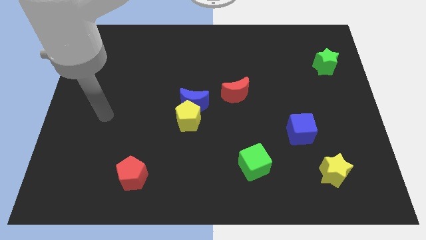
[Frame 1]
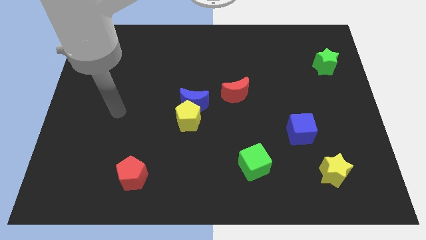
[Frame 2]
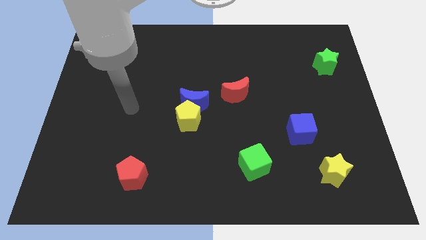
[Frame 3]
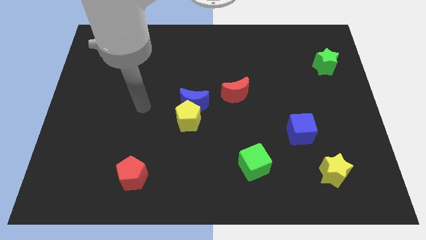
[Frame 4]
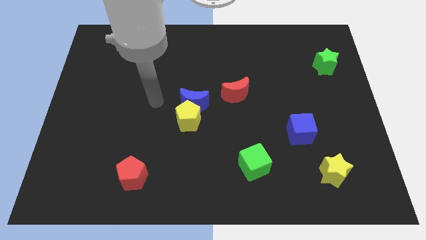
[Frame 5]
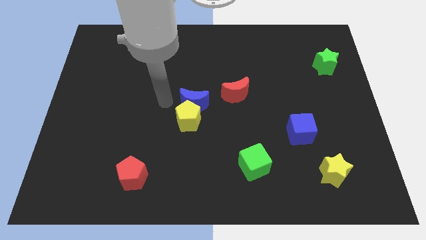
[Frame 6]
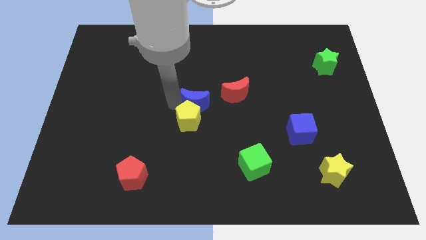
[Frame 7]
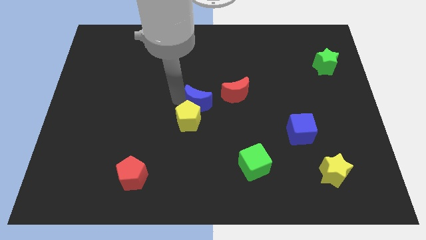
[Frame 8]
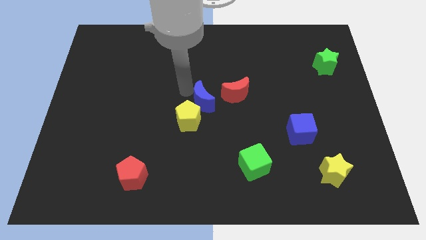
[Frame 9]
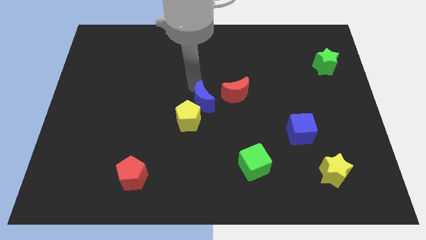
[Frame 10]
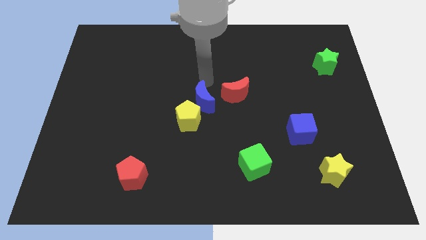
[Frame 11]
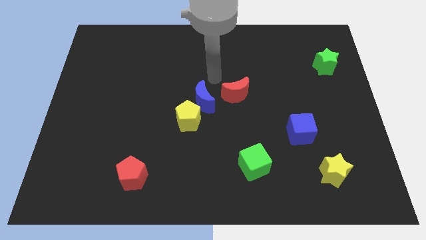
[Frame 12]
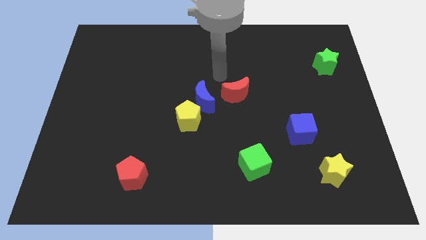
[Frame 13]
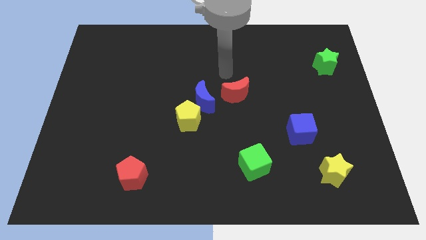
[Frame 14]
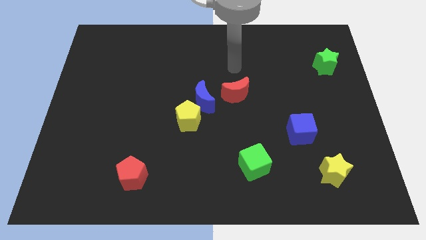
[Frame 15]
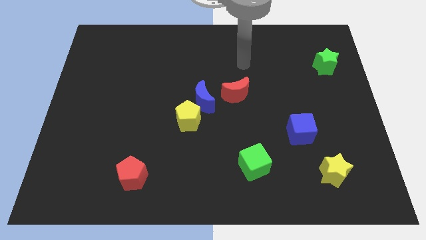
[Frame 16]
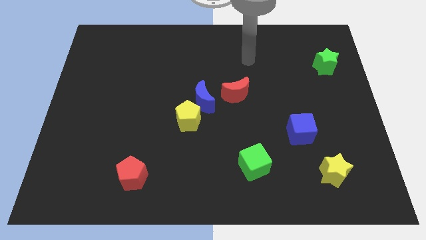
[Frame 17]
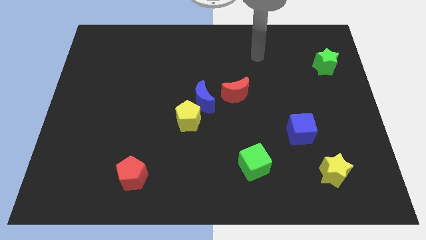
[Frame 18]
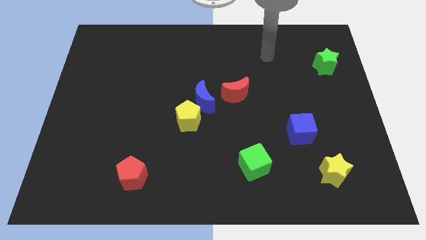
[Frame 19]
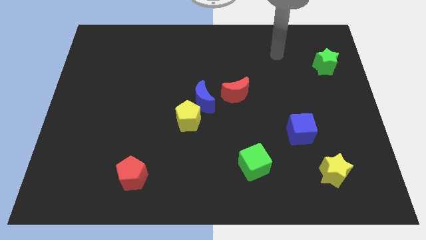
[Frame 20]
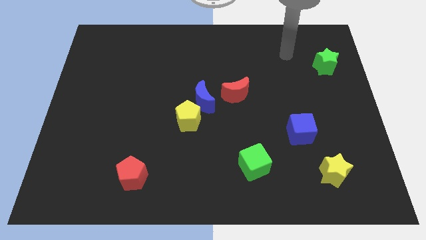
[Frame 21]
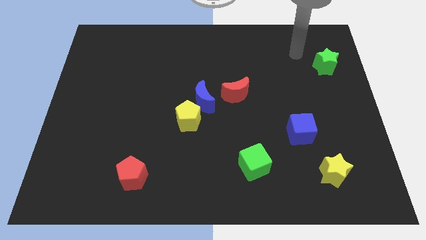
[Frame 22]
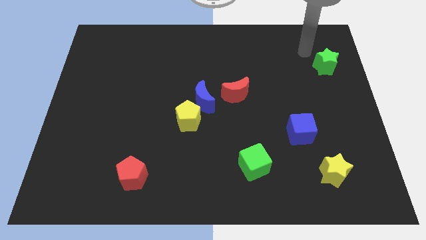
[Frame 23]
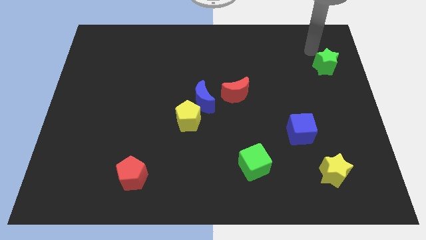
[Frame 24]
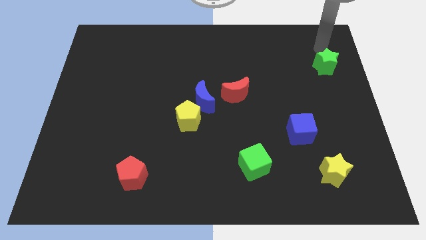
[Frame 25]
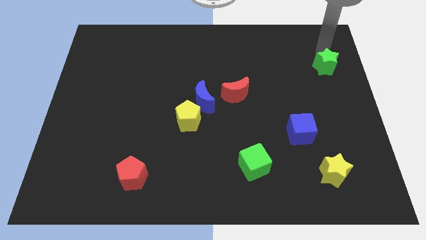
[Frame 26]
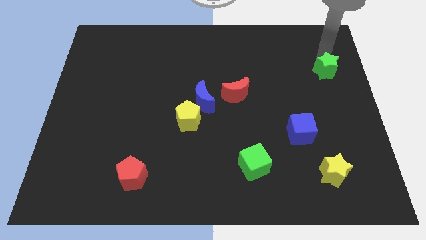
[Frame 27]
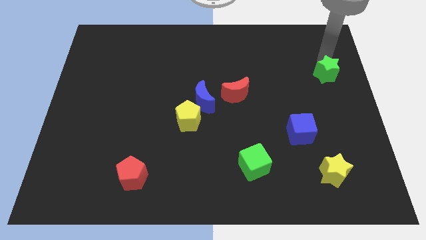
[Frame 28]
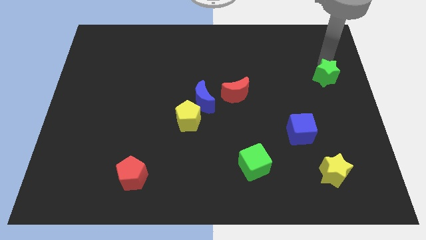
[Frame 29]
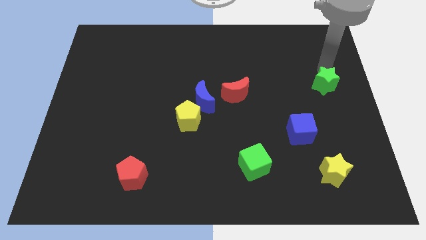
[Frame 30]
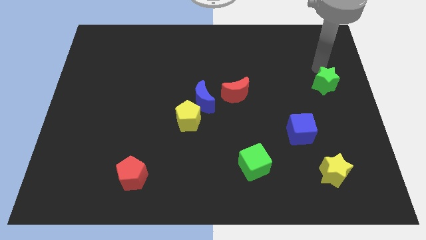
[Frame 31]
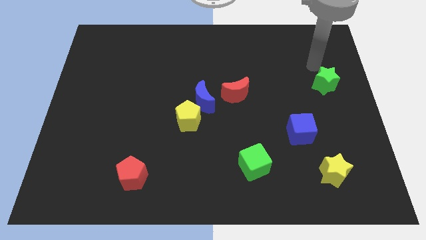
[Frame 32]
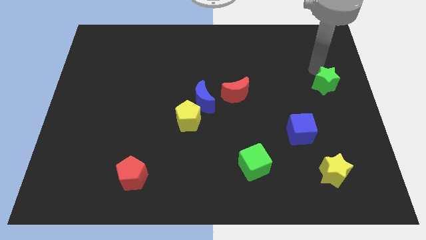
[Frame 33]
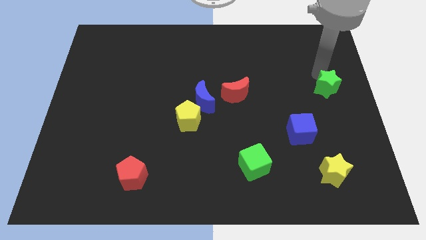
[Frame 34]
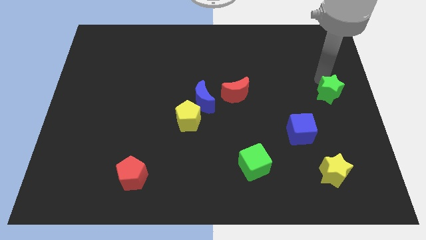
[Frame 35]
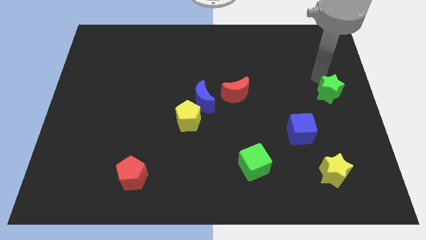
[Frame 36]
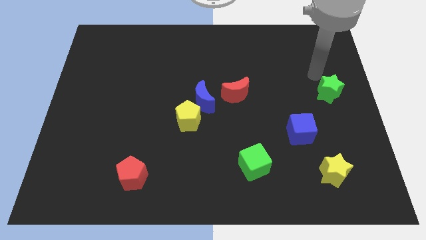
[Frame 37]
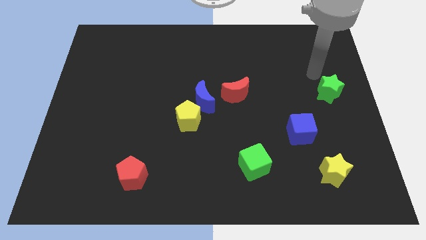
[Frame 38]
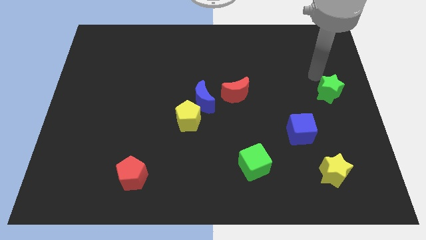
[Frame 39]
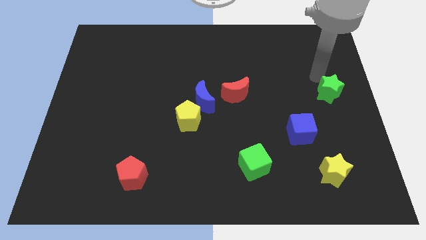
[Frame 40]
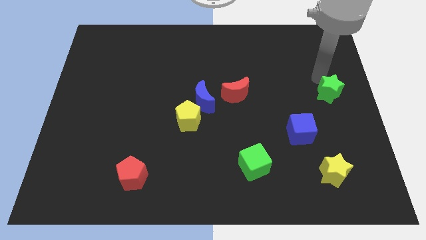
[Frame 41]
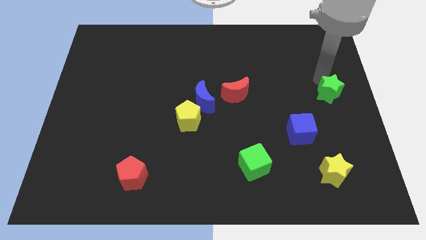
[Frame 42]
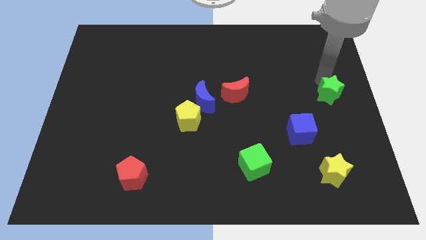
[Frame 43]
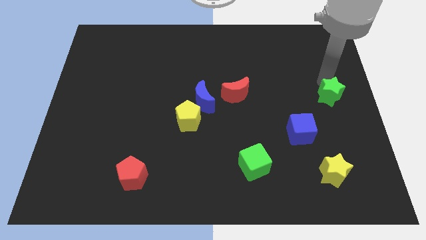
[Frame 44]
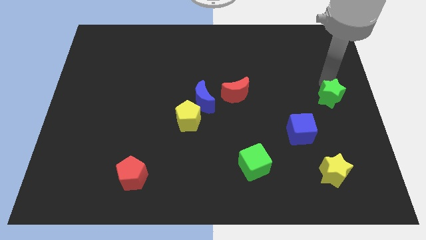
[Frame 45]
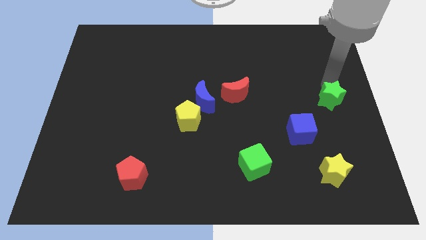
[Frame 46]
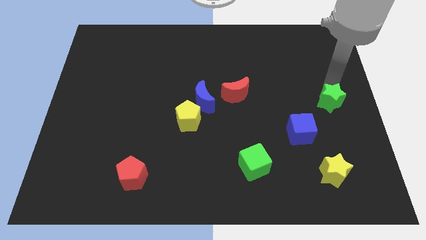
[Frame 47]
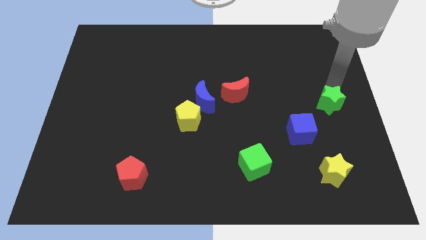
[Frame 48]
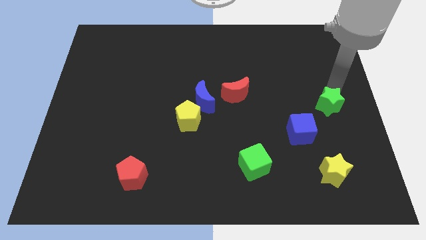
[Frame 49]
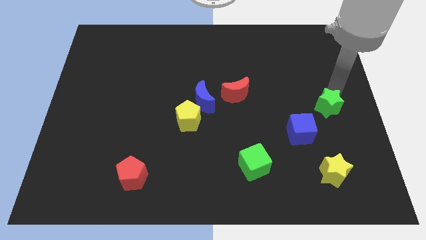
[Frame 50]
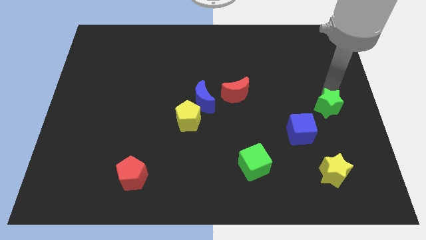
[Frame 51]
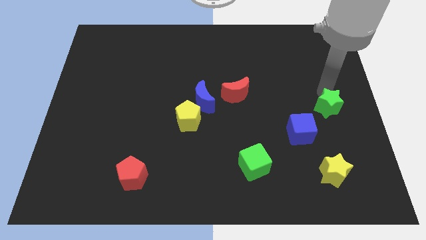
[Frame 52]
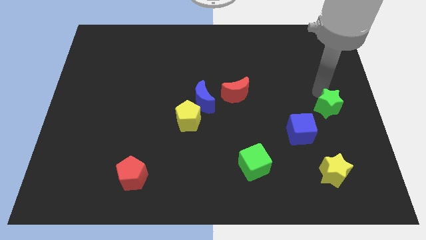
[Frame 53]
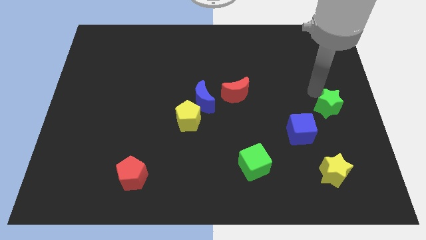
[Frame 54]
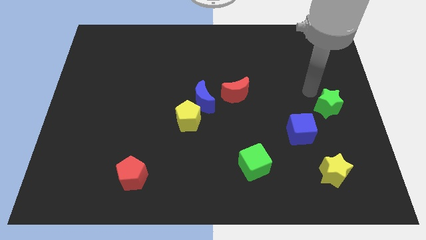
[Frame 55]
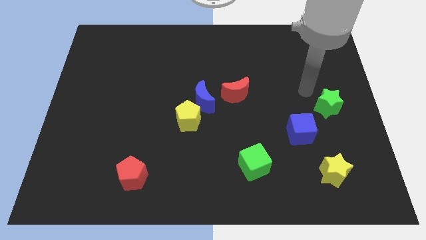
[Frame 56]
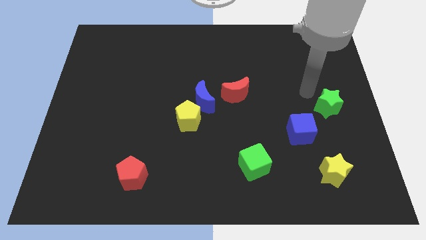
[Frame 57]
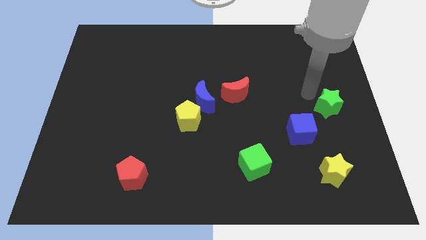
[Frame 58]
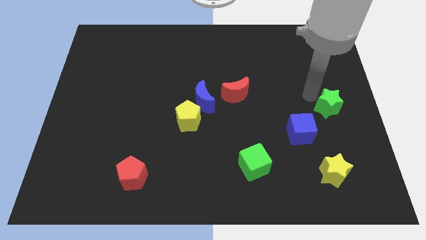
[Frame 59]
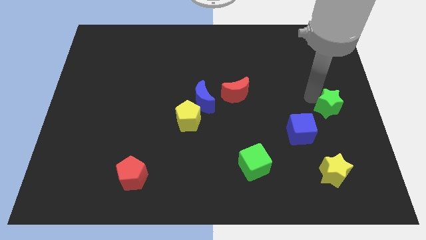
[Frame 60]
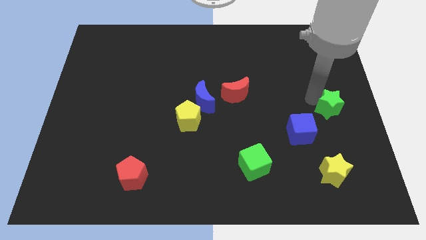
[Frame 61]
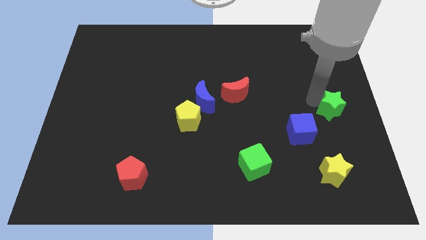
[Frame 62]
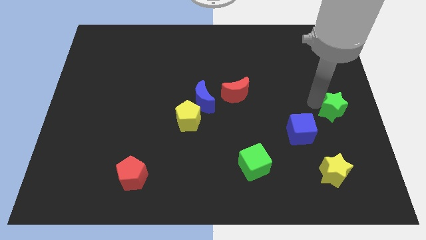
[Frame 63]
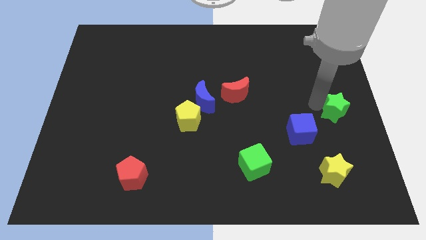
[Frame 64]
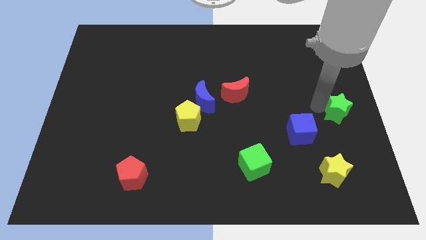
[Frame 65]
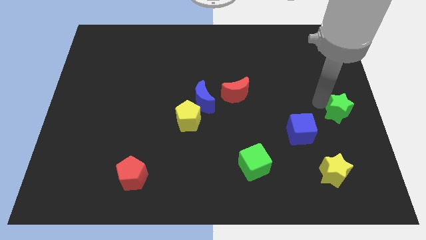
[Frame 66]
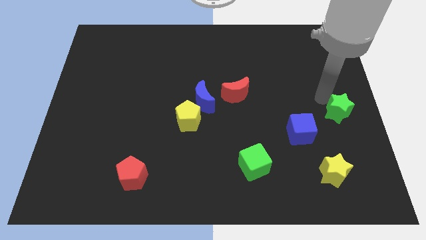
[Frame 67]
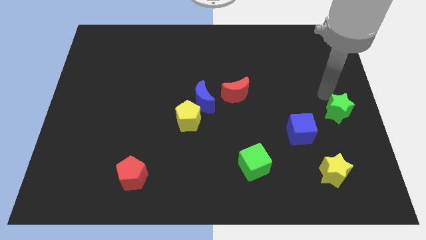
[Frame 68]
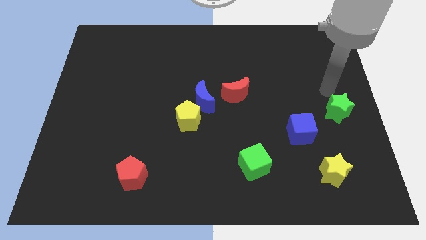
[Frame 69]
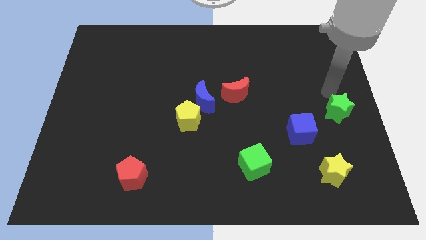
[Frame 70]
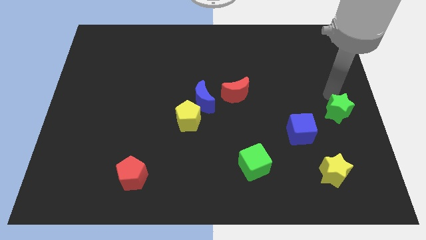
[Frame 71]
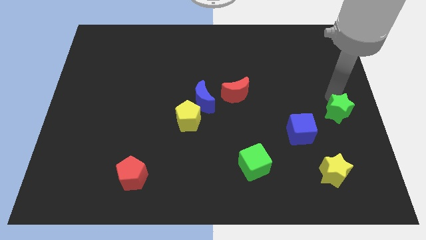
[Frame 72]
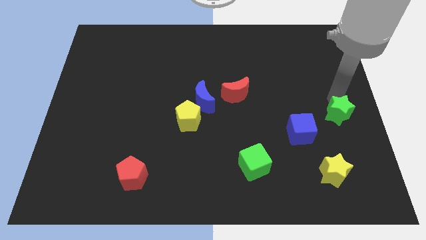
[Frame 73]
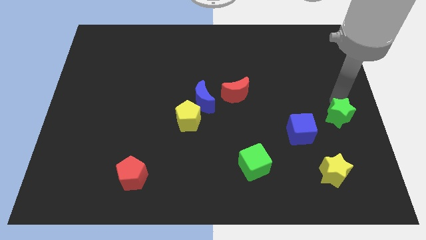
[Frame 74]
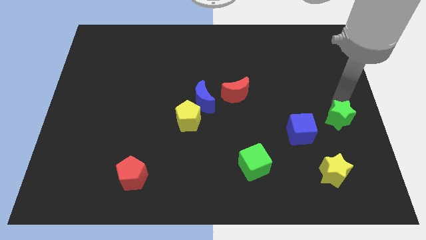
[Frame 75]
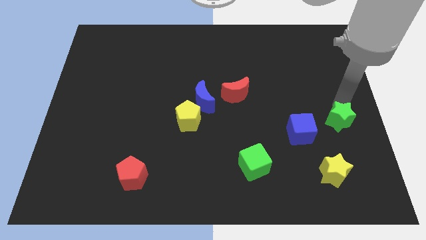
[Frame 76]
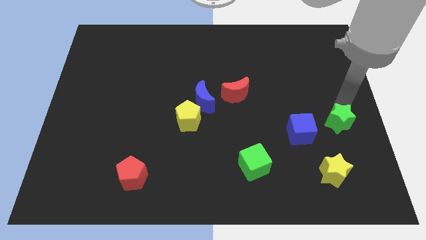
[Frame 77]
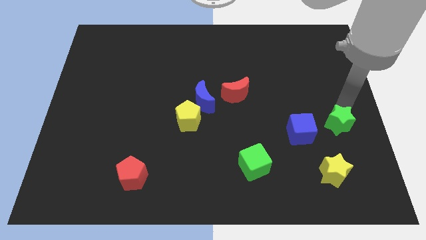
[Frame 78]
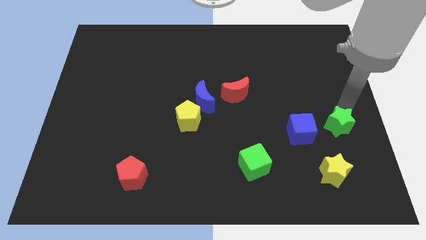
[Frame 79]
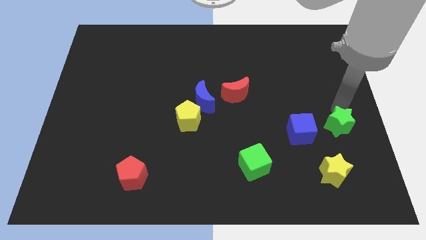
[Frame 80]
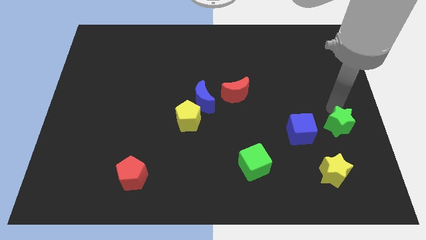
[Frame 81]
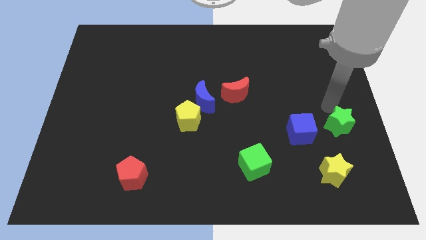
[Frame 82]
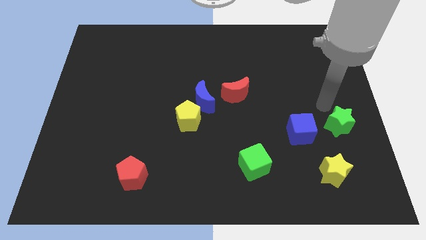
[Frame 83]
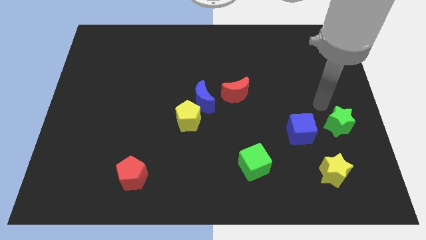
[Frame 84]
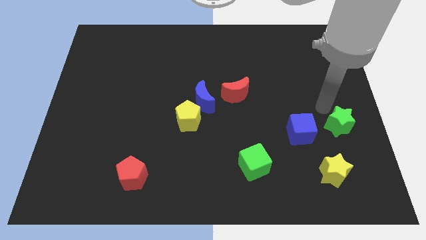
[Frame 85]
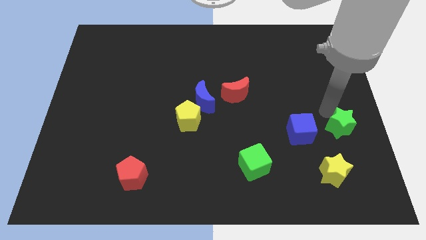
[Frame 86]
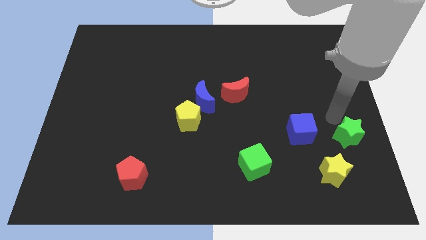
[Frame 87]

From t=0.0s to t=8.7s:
slide the green star down
